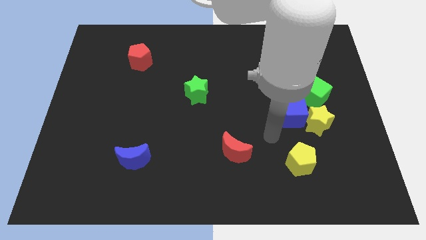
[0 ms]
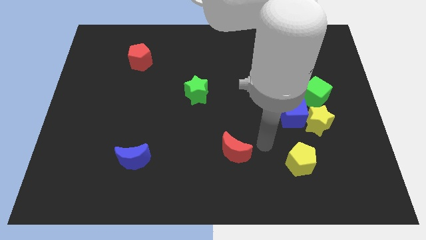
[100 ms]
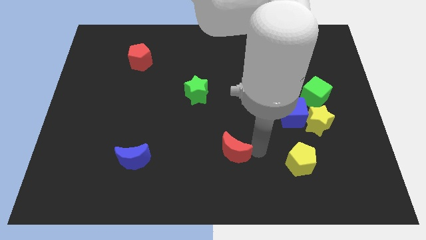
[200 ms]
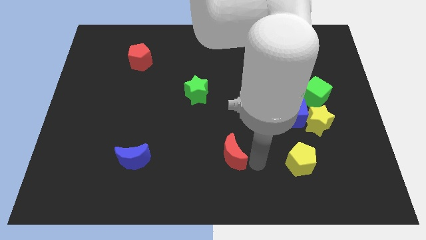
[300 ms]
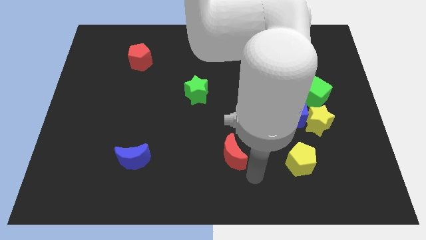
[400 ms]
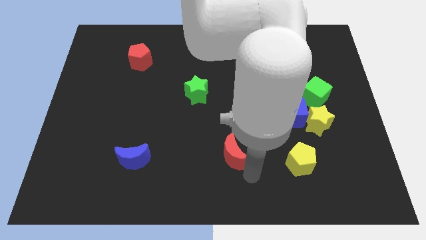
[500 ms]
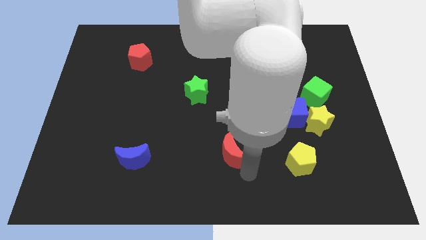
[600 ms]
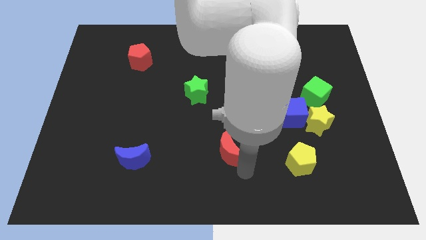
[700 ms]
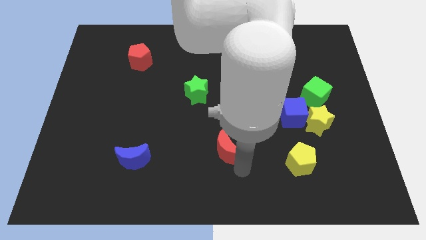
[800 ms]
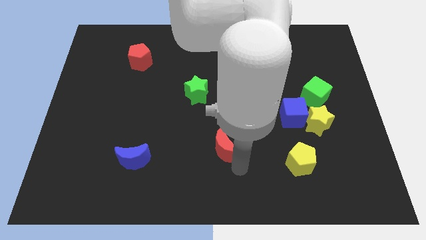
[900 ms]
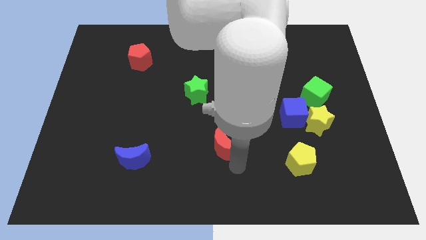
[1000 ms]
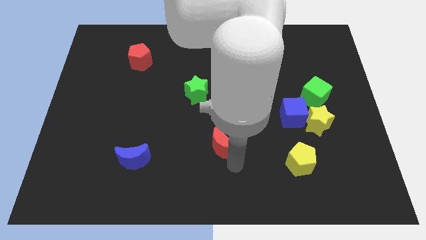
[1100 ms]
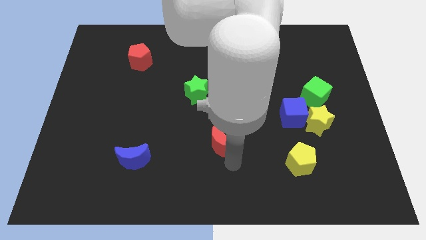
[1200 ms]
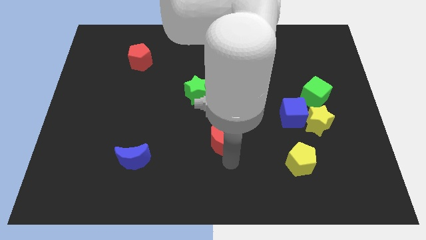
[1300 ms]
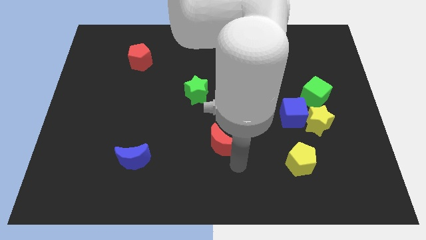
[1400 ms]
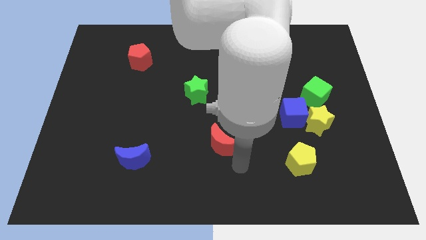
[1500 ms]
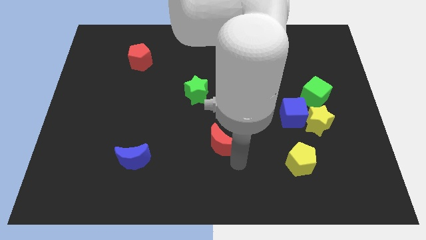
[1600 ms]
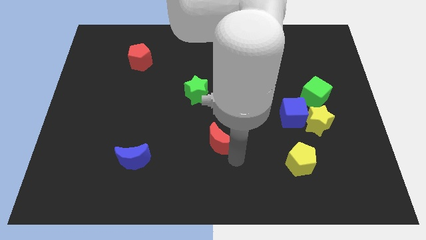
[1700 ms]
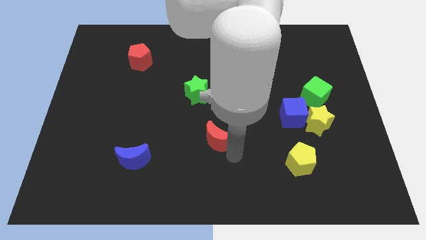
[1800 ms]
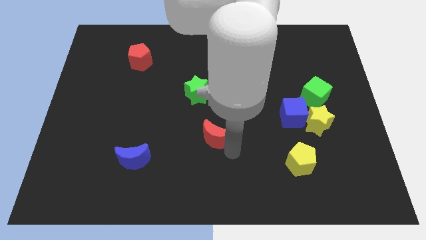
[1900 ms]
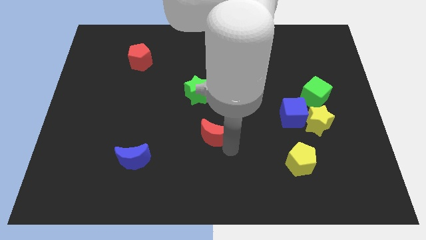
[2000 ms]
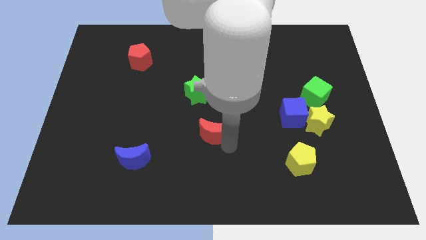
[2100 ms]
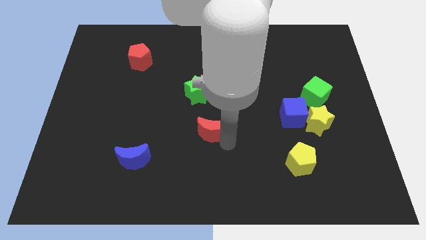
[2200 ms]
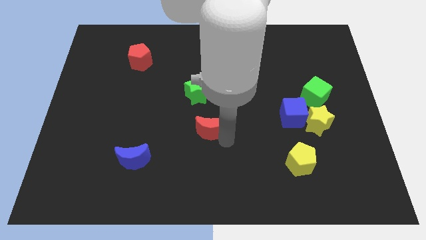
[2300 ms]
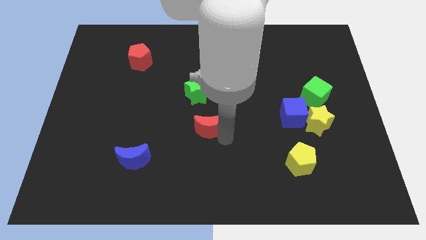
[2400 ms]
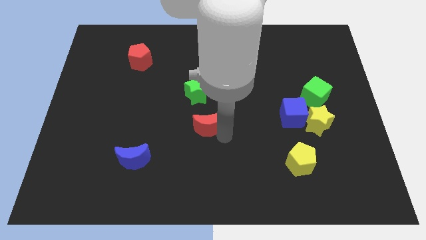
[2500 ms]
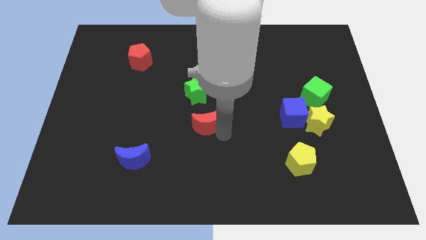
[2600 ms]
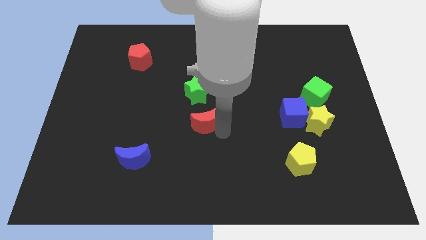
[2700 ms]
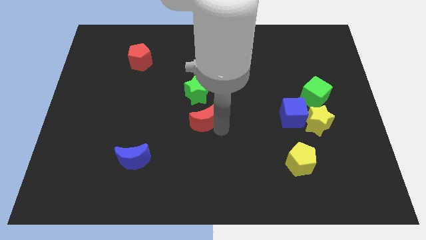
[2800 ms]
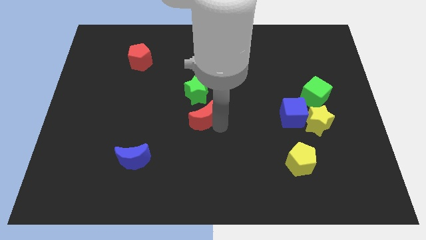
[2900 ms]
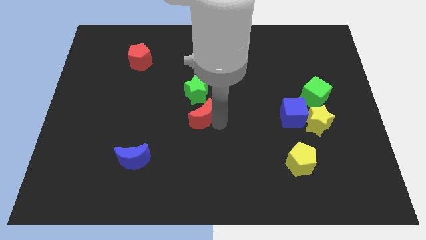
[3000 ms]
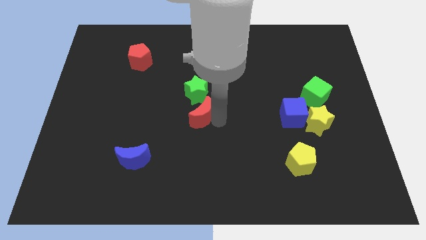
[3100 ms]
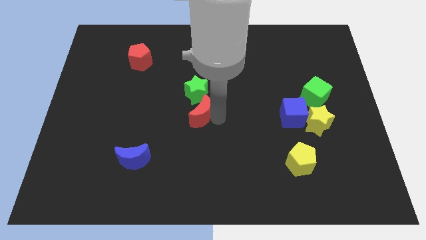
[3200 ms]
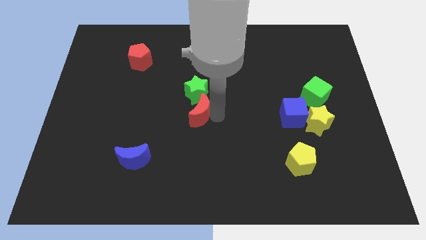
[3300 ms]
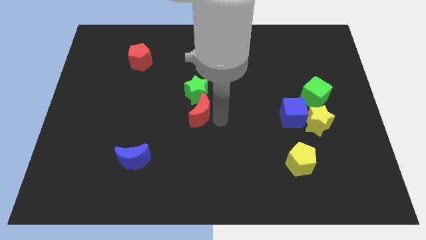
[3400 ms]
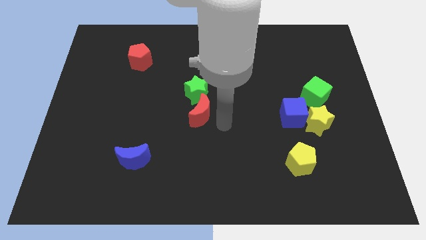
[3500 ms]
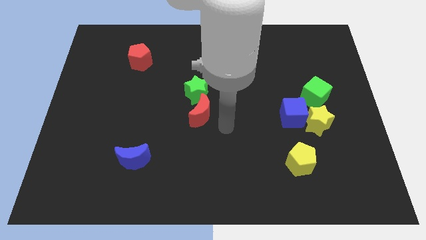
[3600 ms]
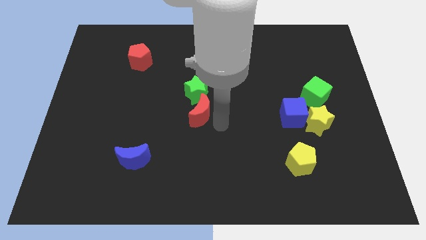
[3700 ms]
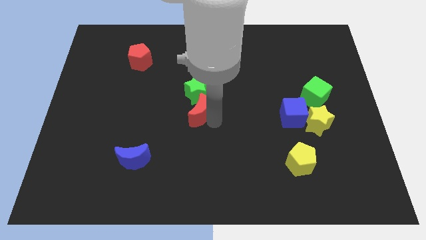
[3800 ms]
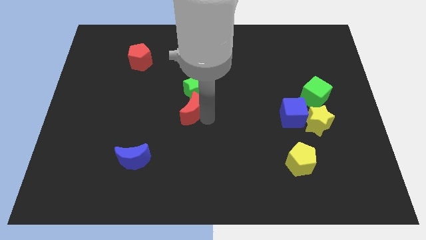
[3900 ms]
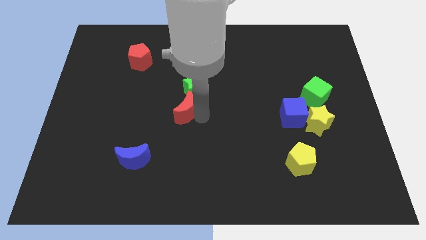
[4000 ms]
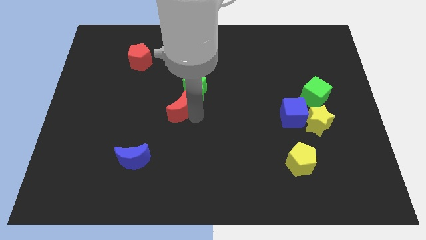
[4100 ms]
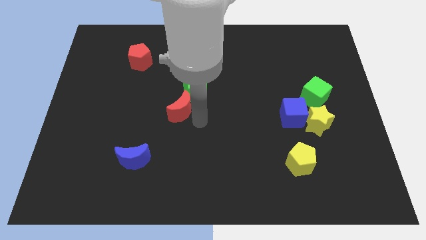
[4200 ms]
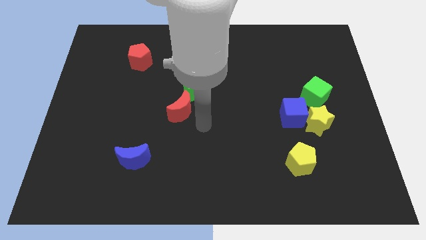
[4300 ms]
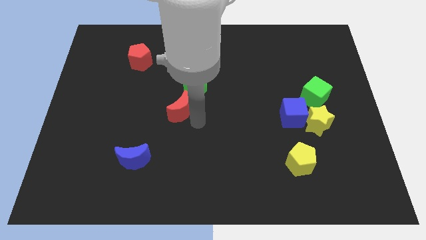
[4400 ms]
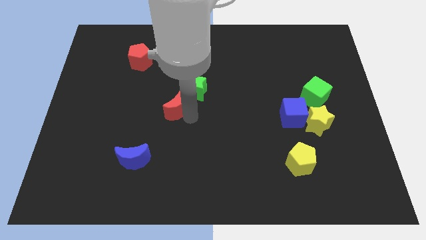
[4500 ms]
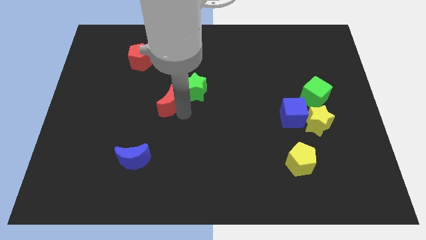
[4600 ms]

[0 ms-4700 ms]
move the red moon to the left side of the green star

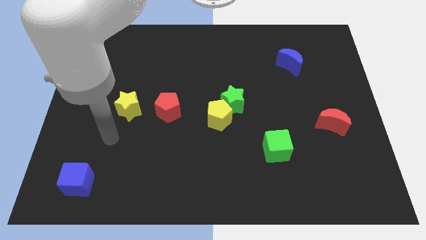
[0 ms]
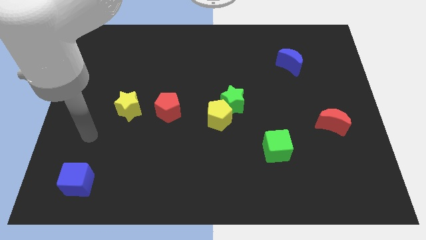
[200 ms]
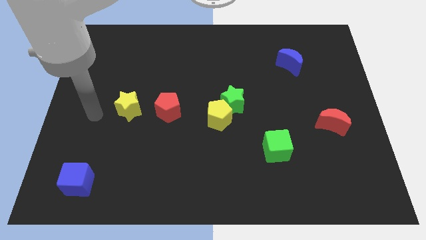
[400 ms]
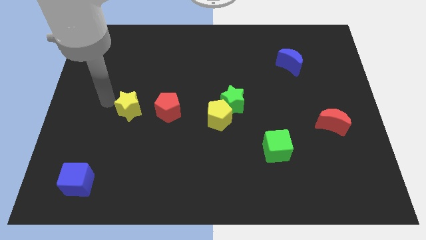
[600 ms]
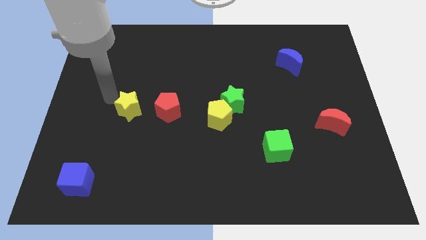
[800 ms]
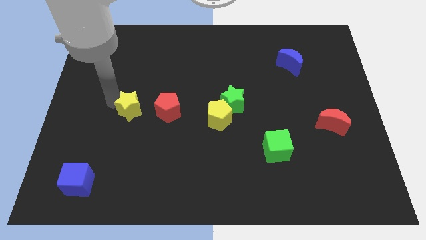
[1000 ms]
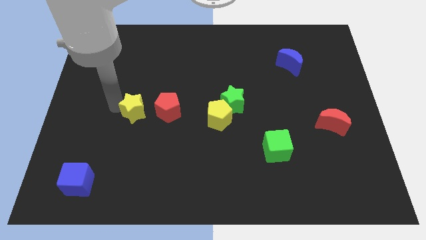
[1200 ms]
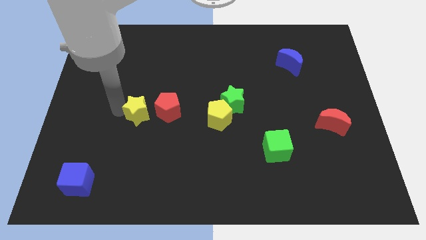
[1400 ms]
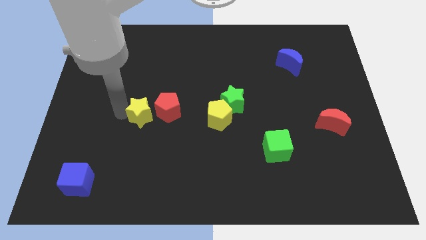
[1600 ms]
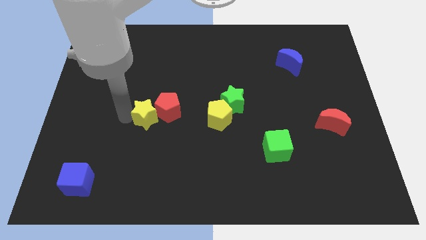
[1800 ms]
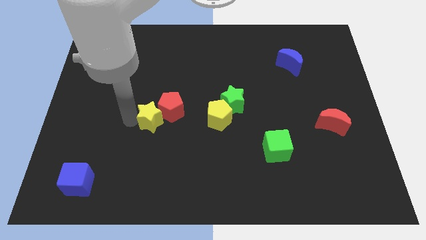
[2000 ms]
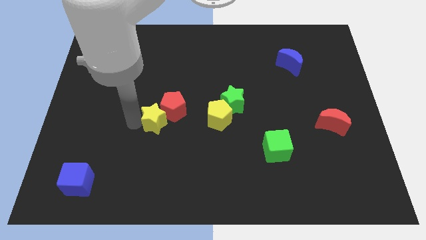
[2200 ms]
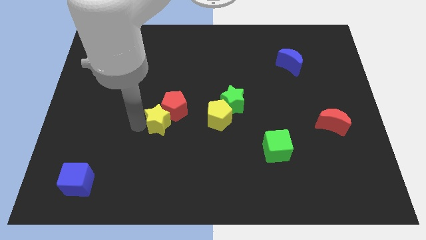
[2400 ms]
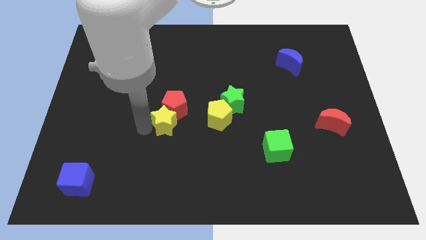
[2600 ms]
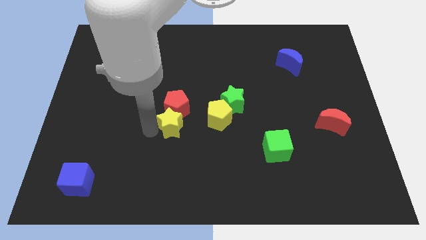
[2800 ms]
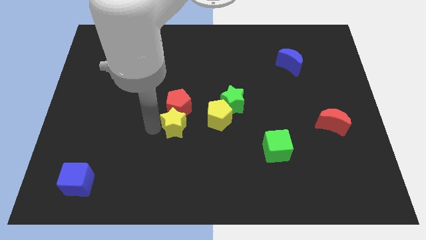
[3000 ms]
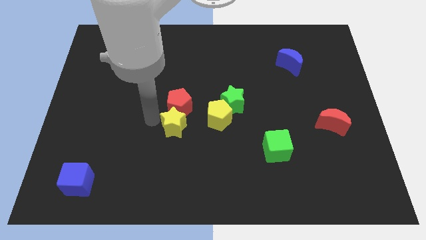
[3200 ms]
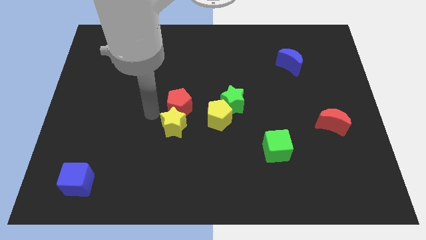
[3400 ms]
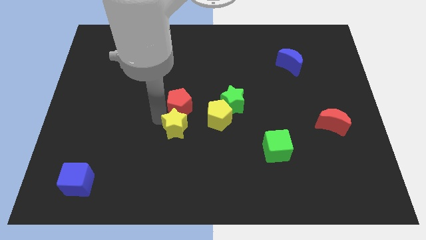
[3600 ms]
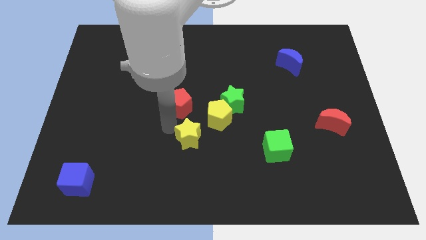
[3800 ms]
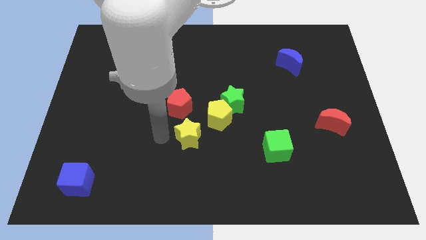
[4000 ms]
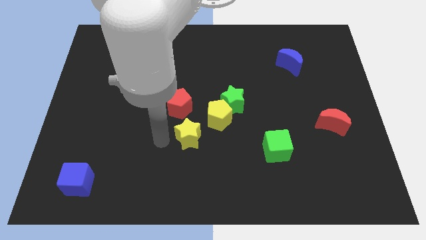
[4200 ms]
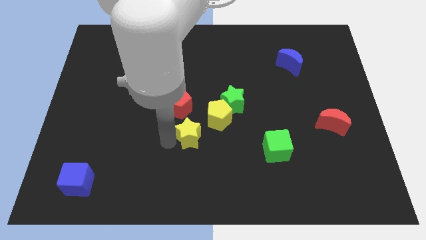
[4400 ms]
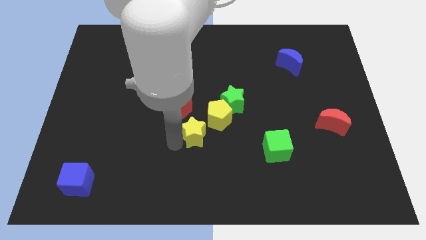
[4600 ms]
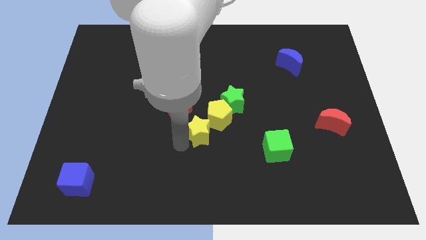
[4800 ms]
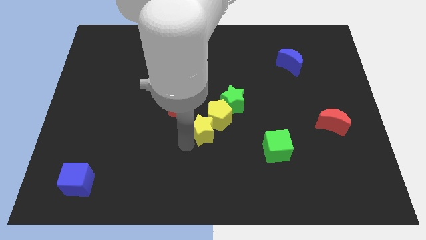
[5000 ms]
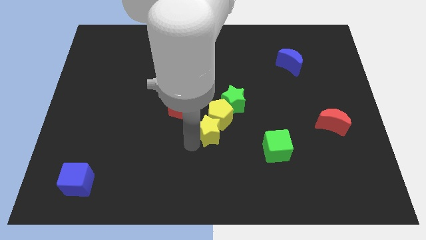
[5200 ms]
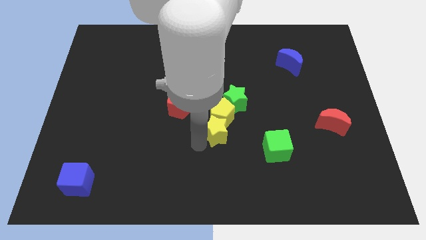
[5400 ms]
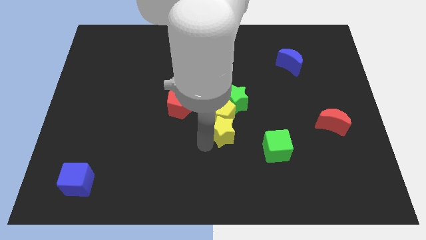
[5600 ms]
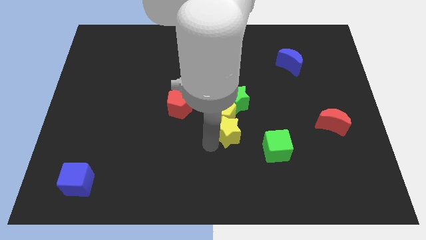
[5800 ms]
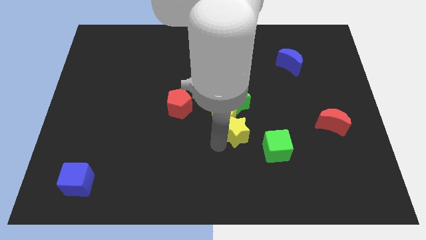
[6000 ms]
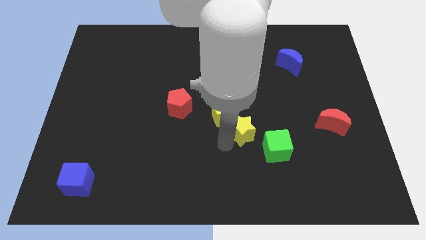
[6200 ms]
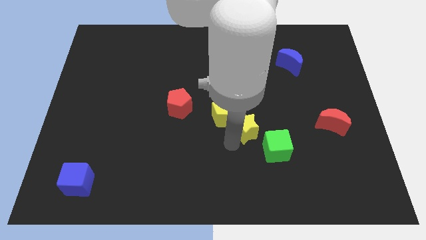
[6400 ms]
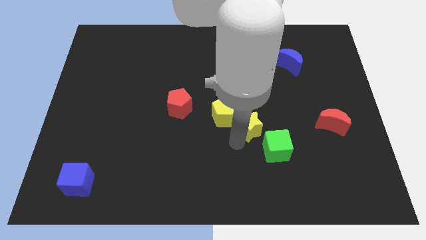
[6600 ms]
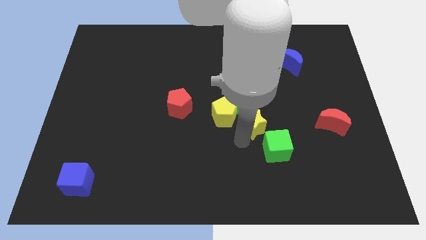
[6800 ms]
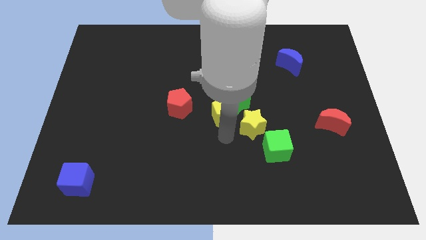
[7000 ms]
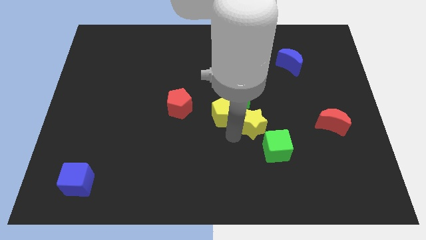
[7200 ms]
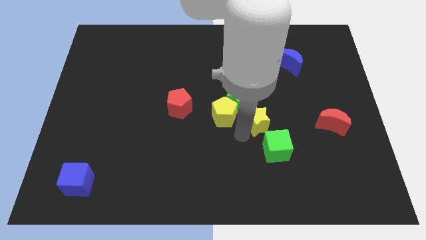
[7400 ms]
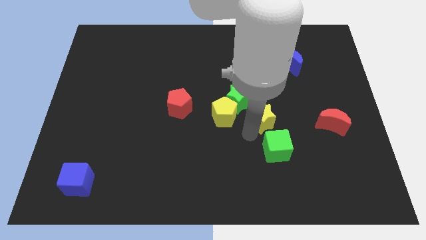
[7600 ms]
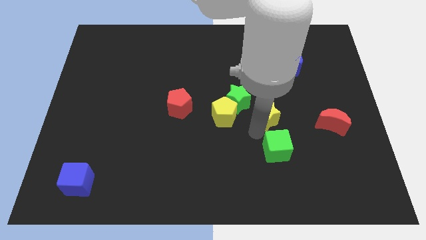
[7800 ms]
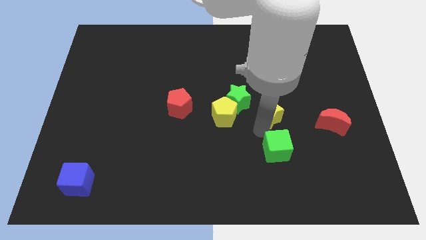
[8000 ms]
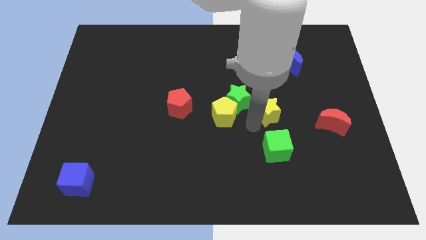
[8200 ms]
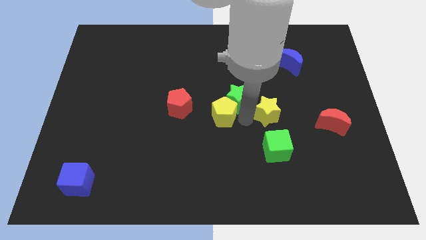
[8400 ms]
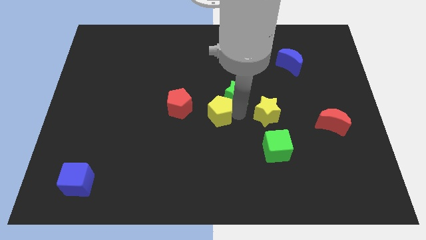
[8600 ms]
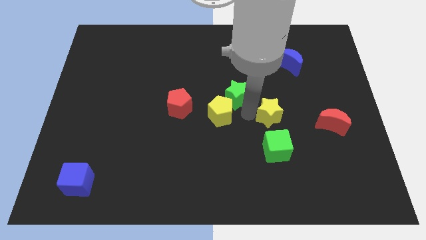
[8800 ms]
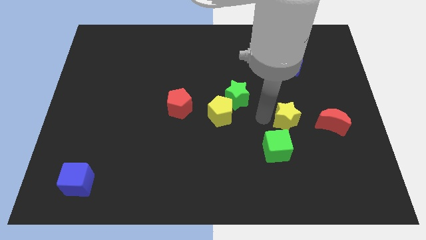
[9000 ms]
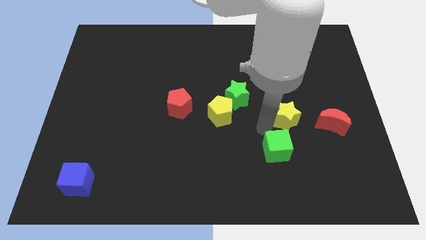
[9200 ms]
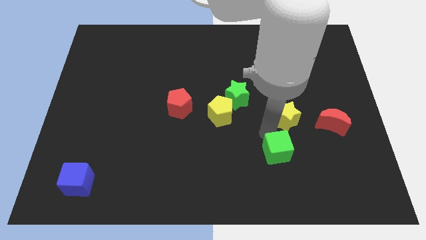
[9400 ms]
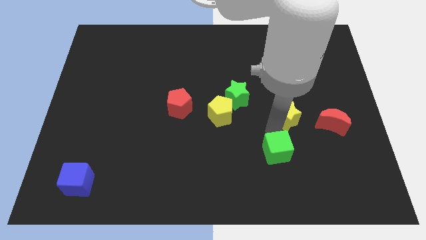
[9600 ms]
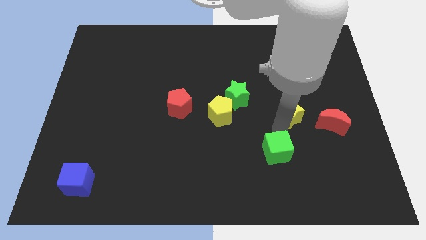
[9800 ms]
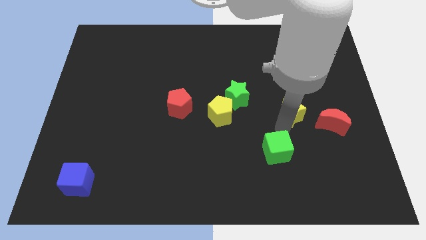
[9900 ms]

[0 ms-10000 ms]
move the yellow star to the top left of the red moon
